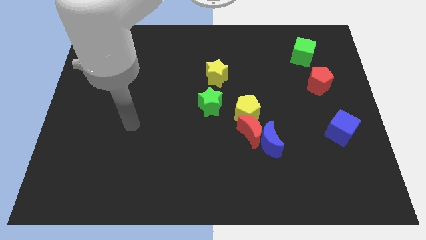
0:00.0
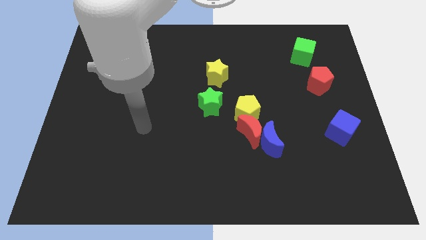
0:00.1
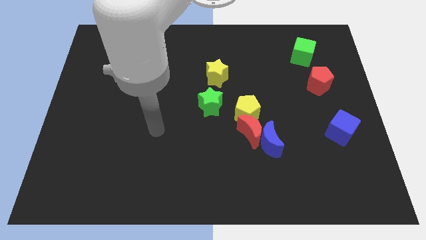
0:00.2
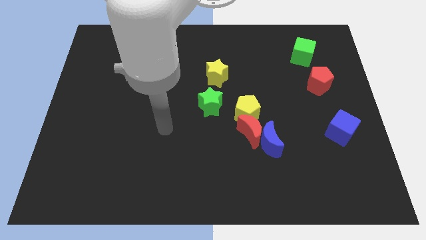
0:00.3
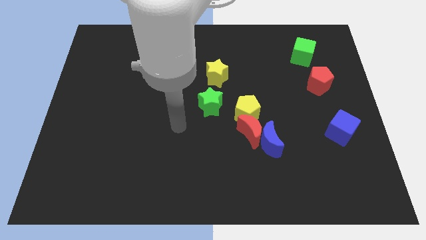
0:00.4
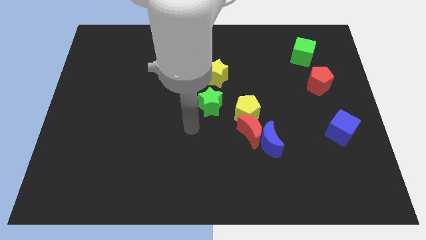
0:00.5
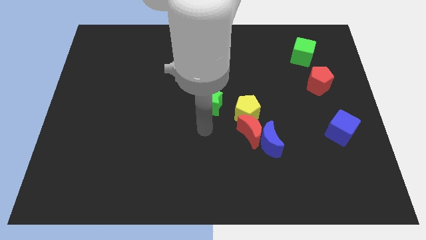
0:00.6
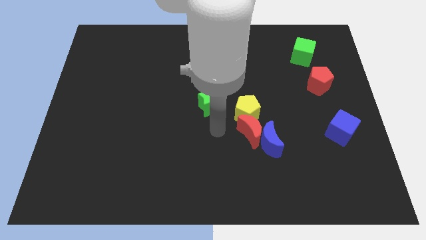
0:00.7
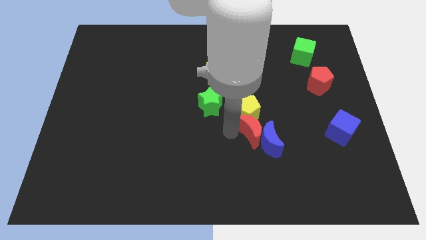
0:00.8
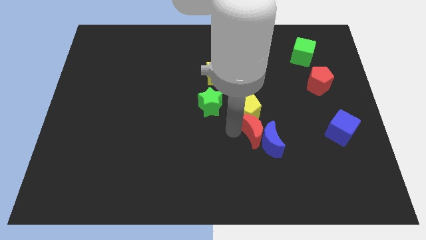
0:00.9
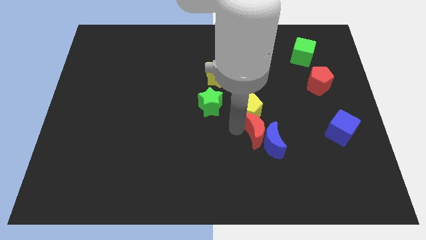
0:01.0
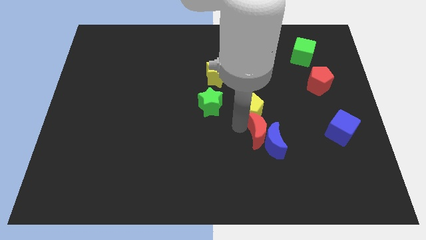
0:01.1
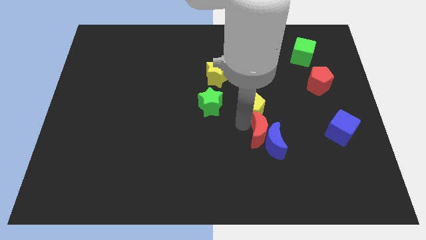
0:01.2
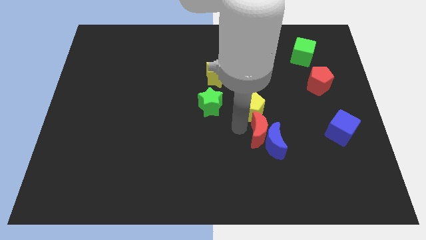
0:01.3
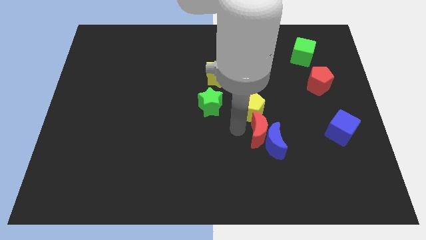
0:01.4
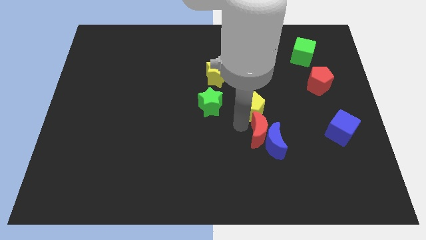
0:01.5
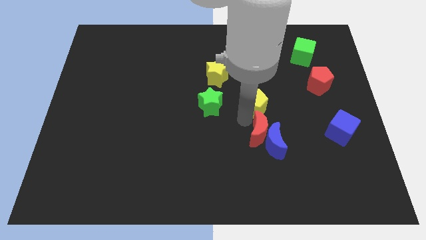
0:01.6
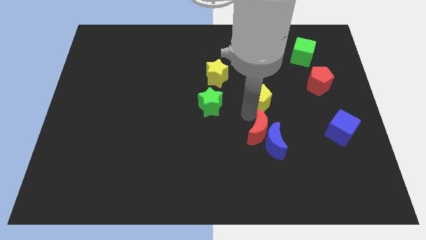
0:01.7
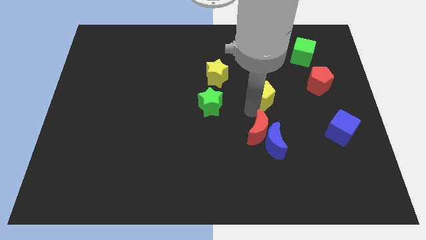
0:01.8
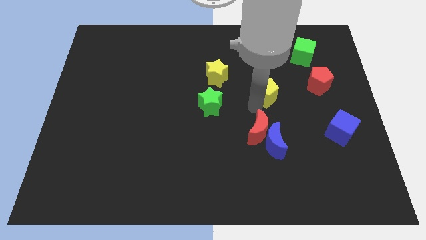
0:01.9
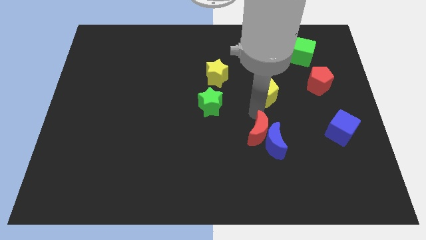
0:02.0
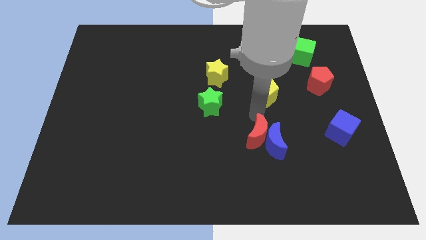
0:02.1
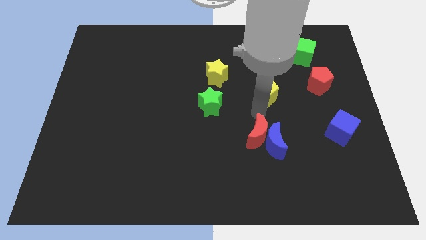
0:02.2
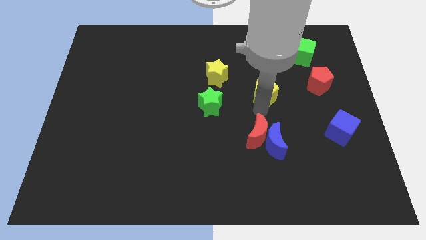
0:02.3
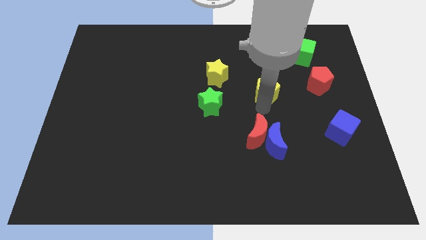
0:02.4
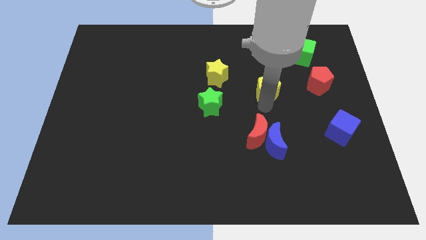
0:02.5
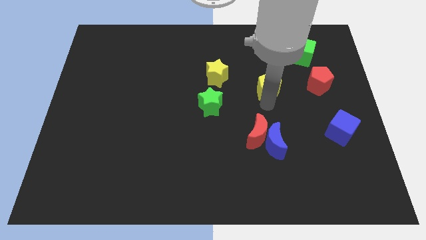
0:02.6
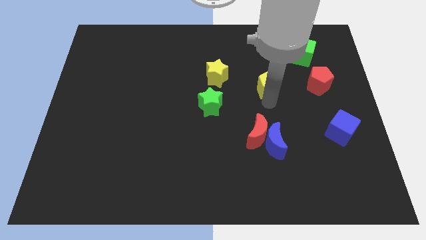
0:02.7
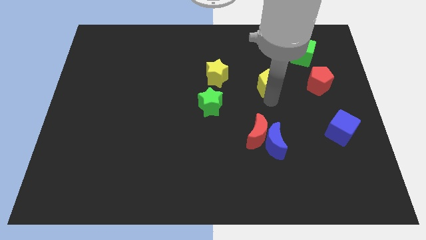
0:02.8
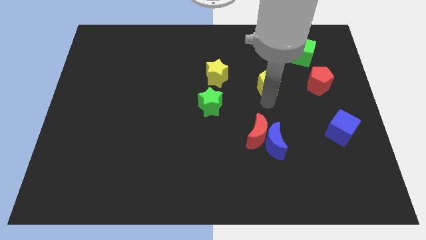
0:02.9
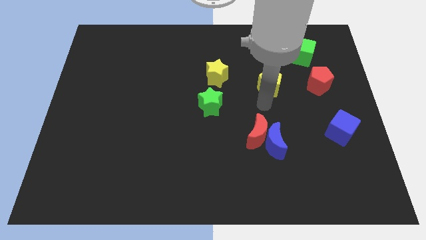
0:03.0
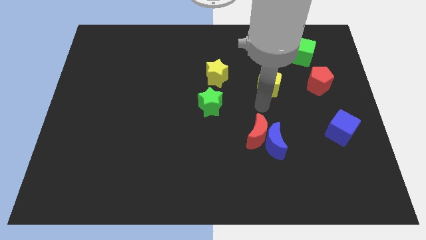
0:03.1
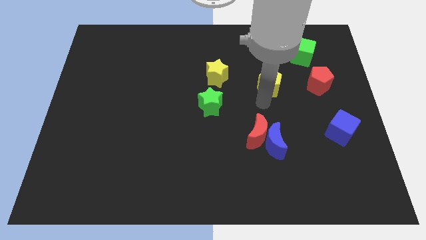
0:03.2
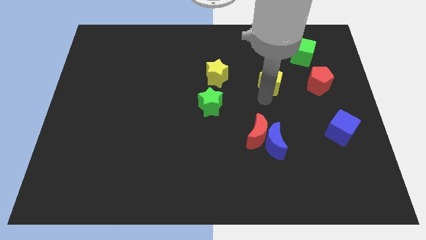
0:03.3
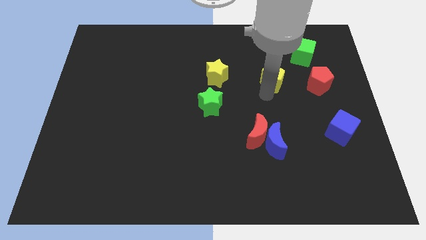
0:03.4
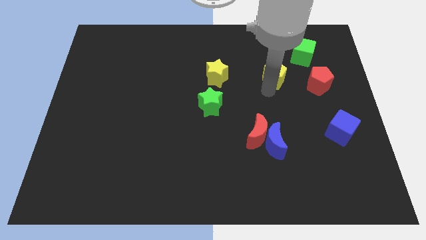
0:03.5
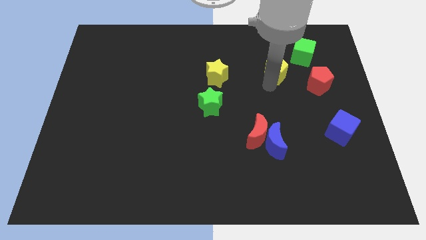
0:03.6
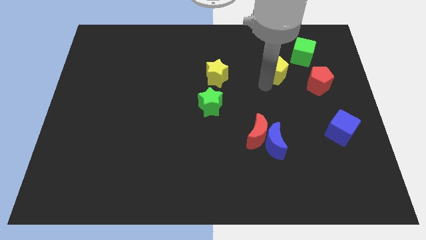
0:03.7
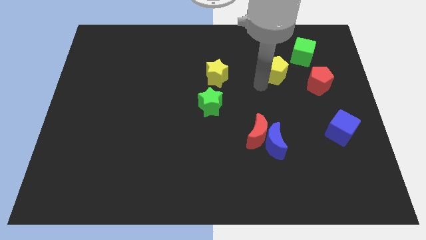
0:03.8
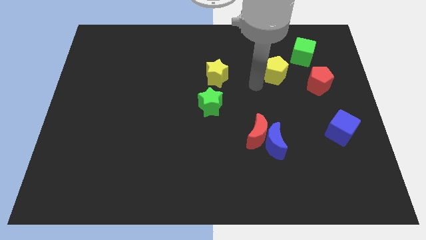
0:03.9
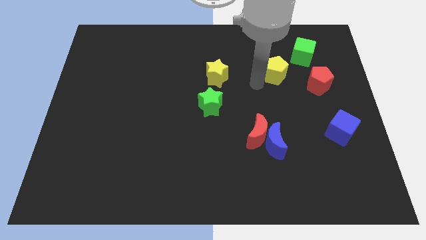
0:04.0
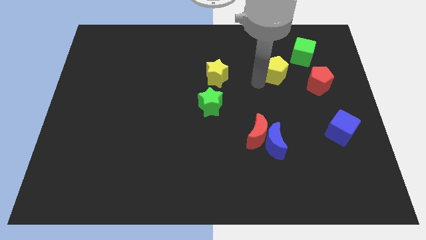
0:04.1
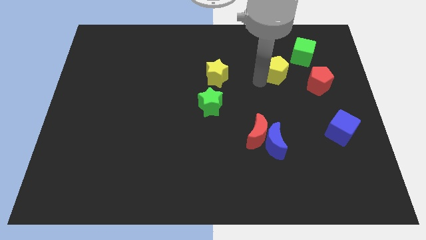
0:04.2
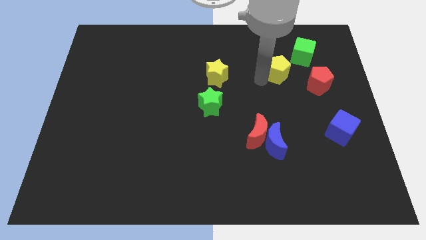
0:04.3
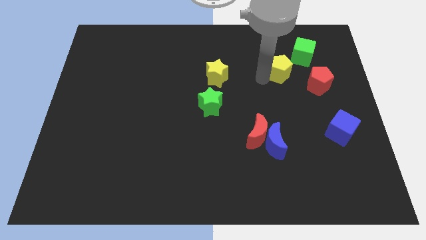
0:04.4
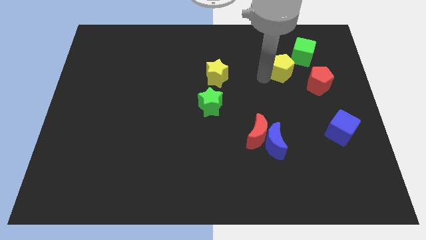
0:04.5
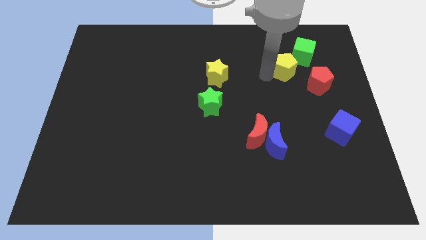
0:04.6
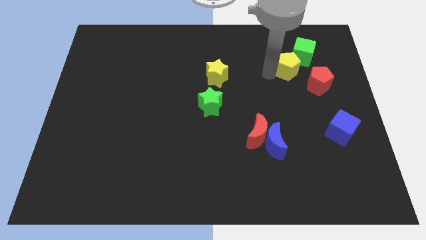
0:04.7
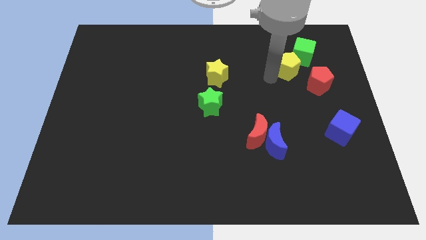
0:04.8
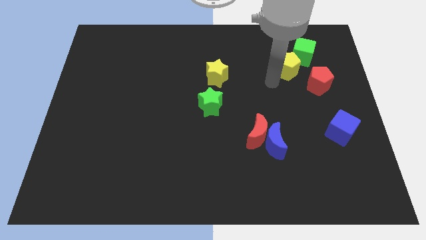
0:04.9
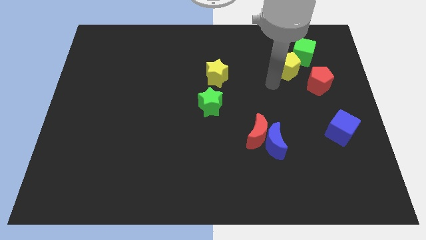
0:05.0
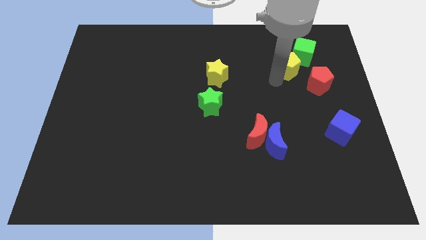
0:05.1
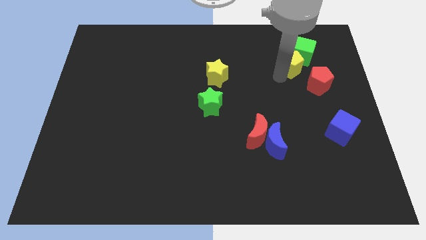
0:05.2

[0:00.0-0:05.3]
put the yellow pentagon close to the green cube

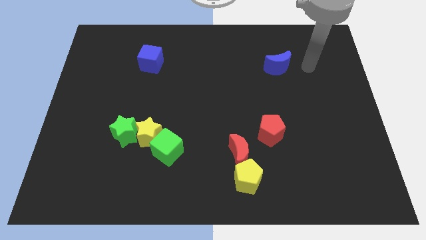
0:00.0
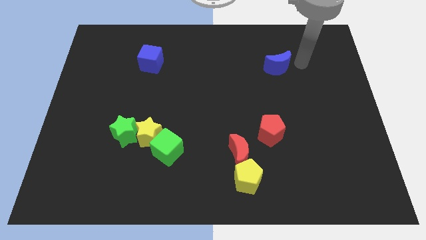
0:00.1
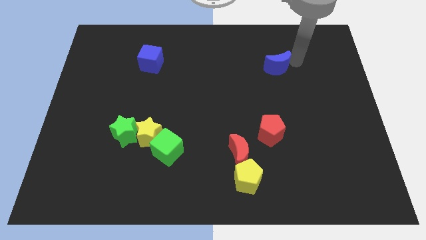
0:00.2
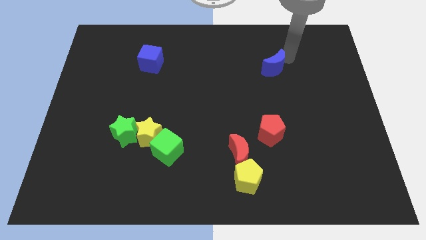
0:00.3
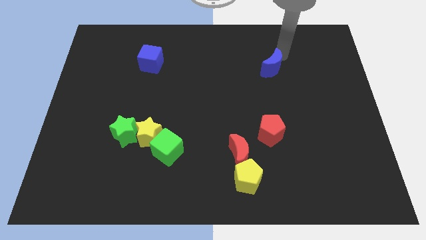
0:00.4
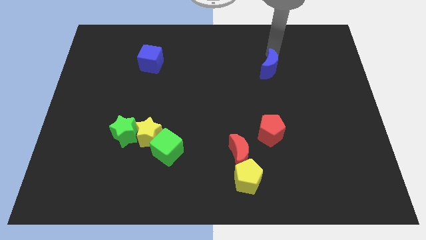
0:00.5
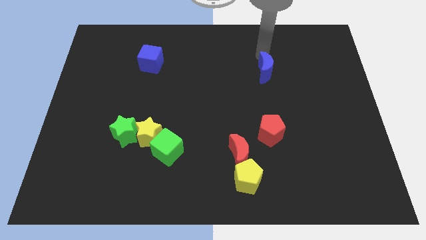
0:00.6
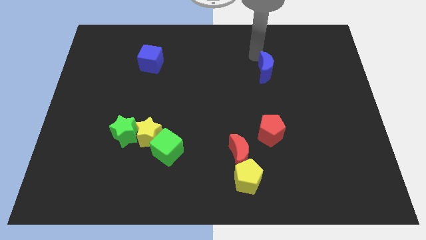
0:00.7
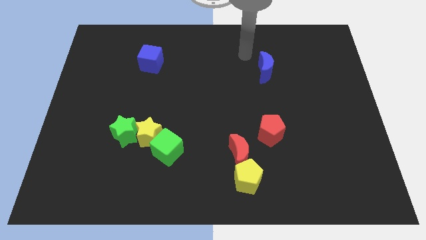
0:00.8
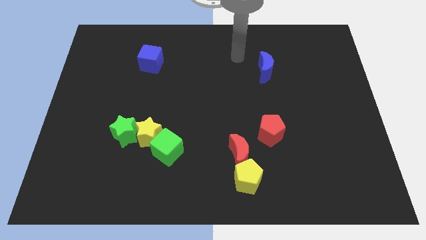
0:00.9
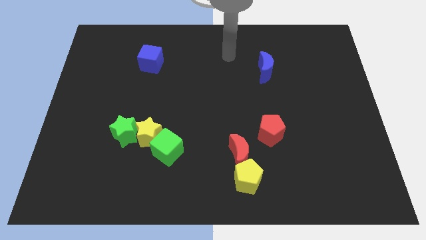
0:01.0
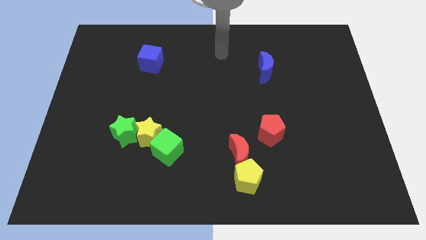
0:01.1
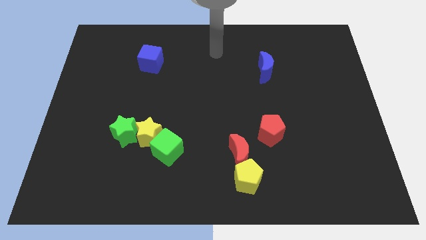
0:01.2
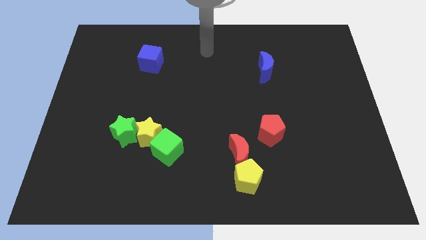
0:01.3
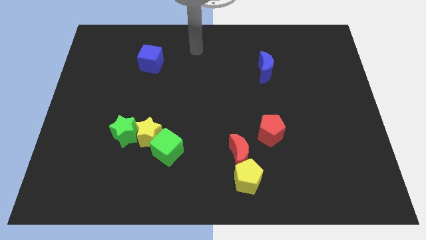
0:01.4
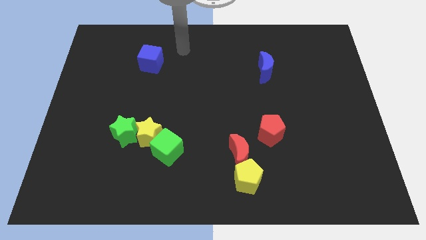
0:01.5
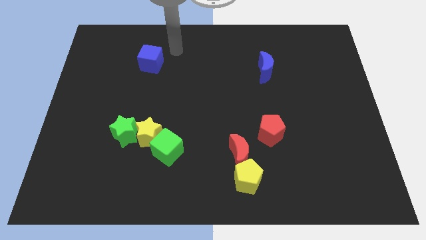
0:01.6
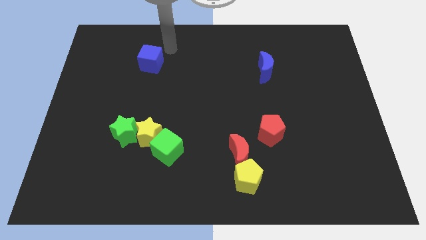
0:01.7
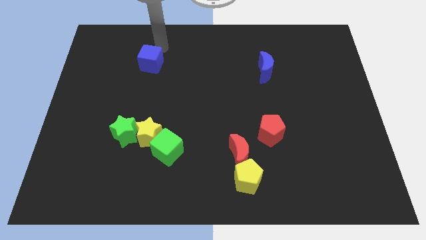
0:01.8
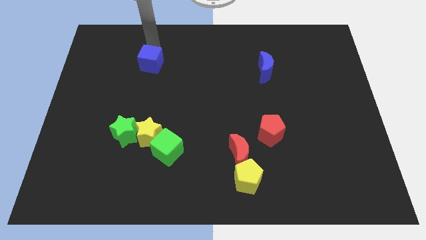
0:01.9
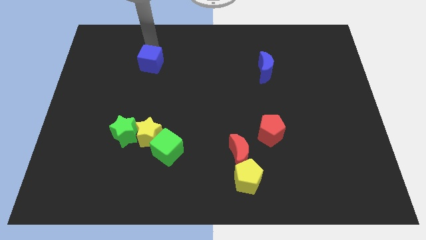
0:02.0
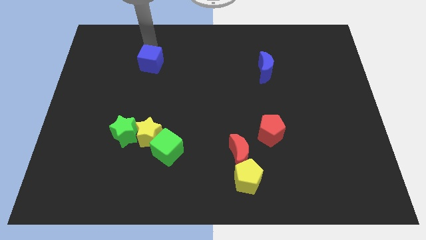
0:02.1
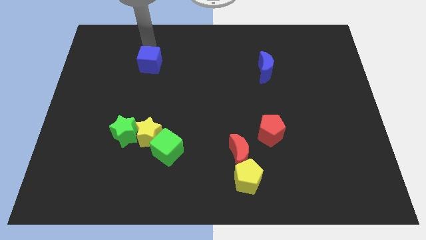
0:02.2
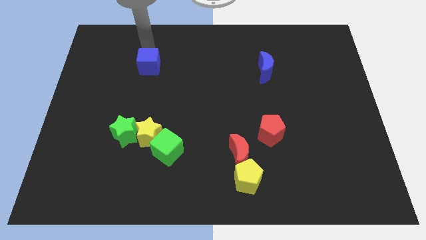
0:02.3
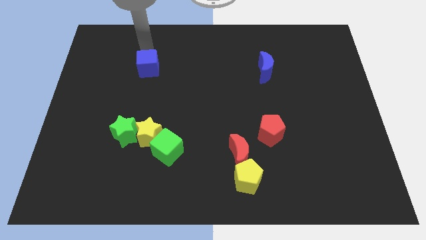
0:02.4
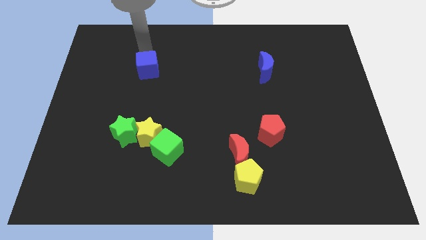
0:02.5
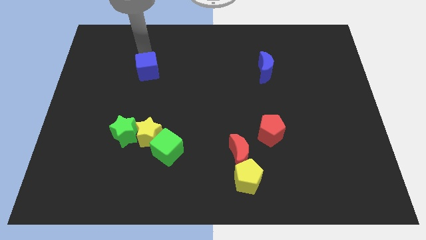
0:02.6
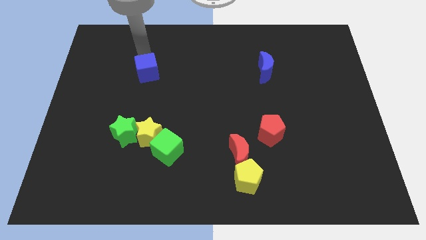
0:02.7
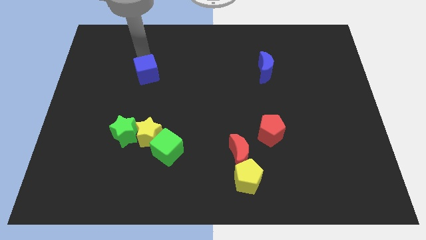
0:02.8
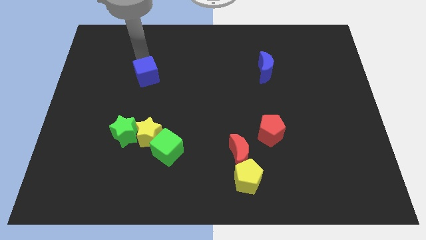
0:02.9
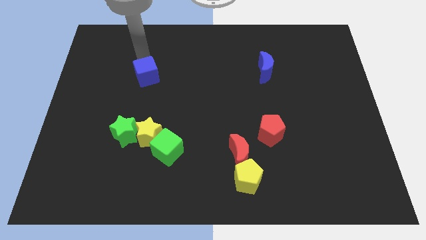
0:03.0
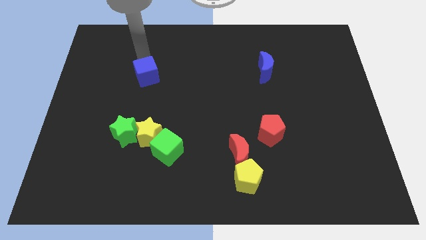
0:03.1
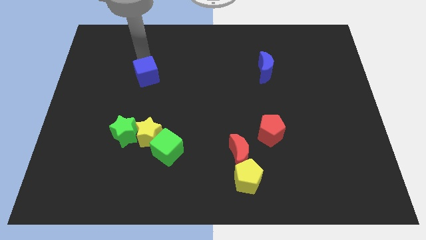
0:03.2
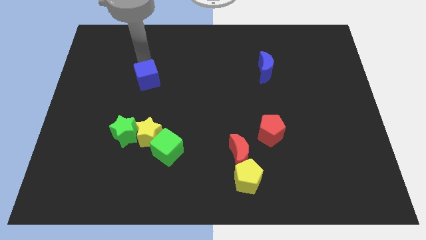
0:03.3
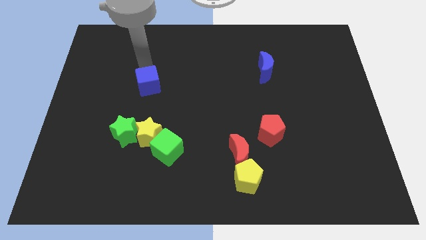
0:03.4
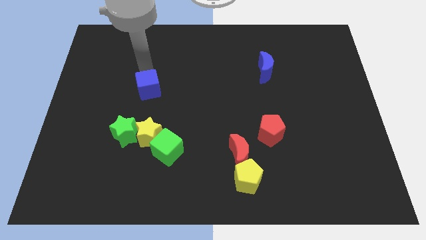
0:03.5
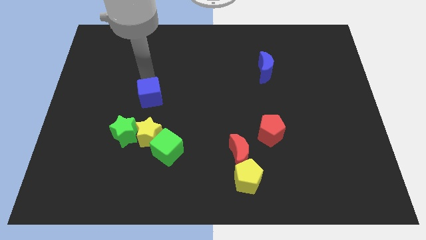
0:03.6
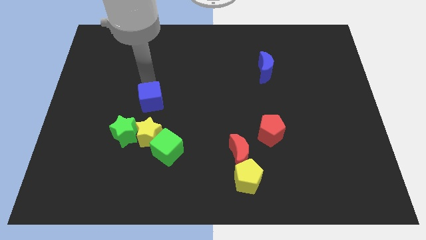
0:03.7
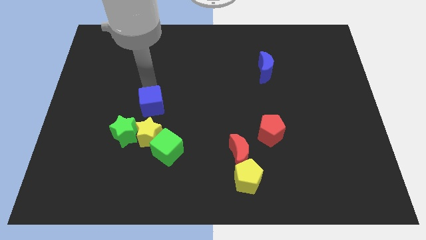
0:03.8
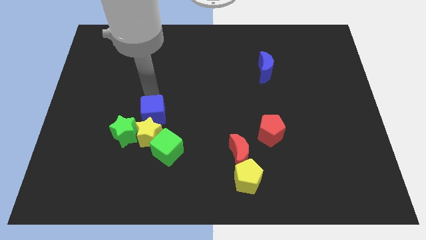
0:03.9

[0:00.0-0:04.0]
push the blue cube to the yellow star
